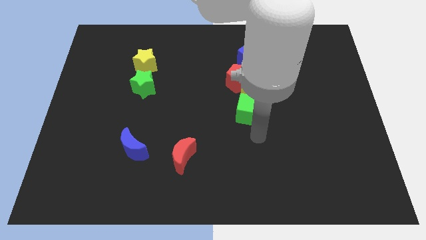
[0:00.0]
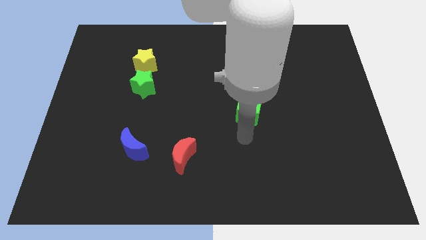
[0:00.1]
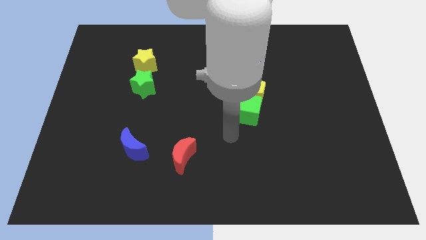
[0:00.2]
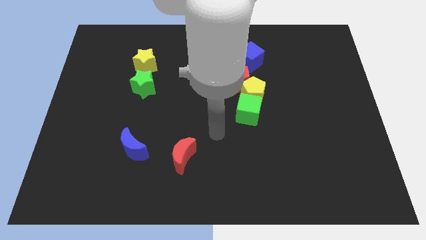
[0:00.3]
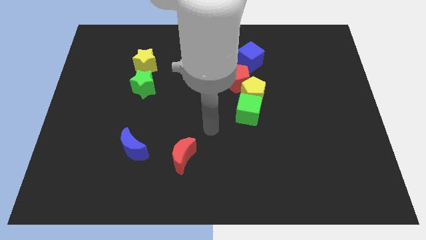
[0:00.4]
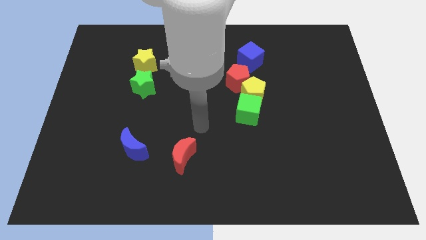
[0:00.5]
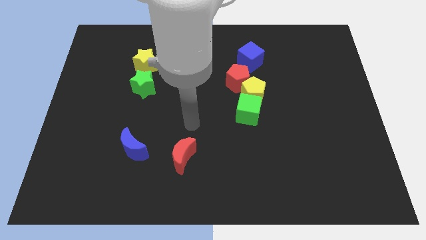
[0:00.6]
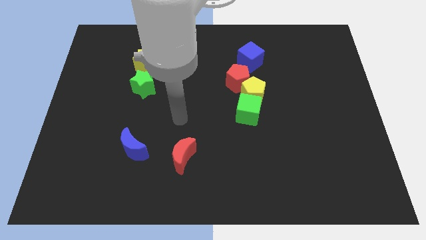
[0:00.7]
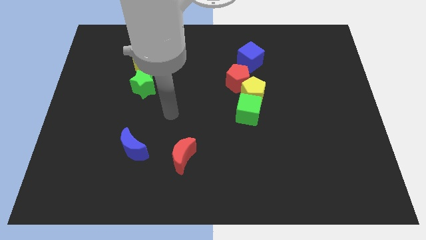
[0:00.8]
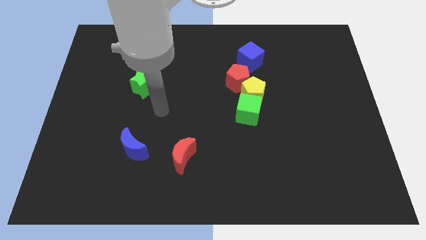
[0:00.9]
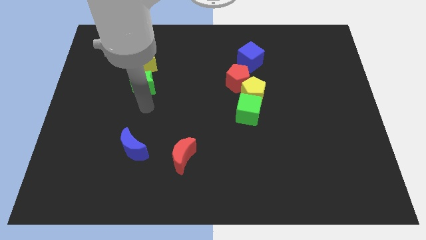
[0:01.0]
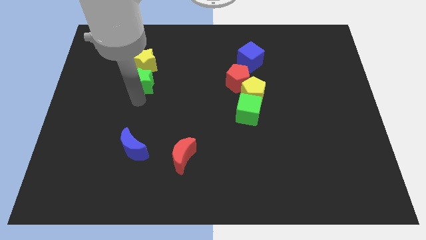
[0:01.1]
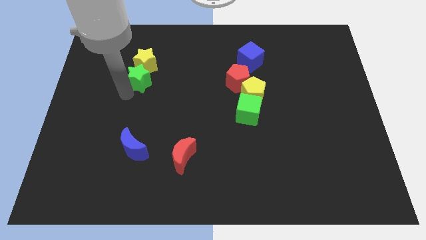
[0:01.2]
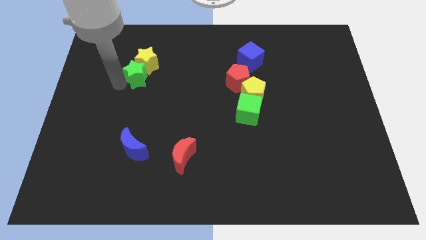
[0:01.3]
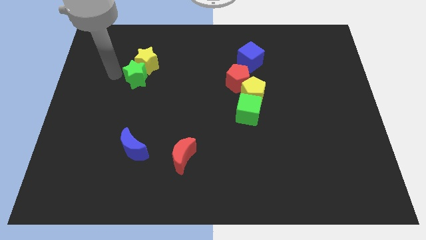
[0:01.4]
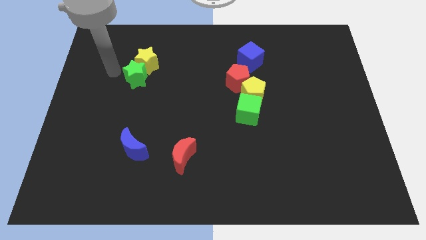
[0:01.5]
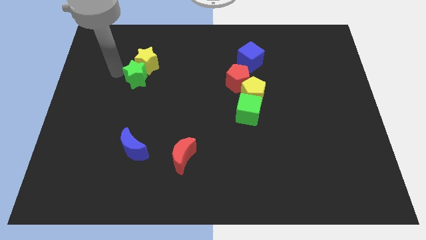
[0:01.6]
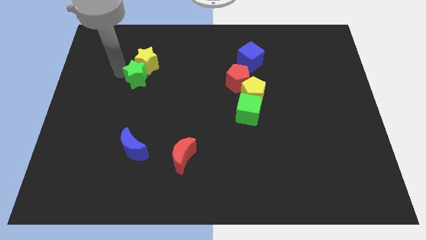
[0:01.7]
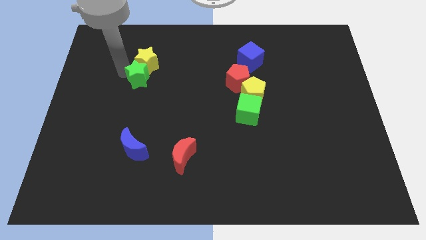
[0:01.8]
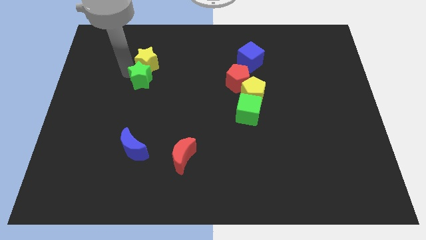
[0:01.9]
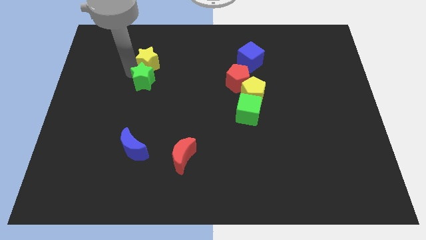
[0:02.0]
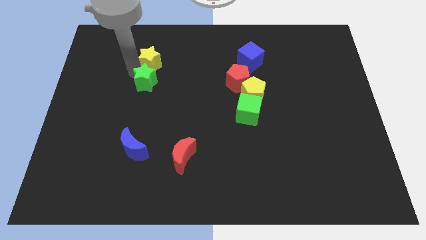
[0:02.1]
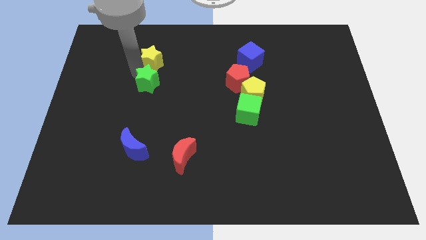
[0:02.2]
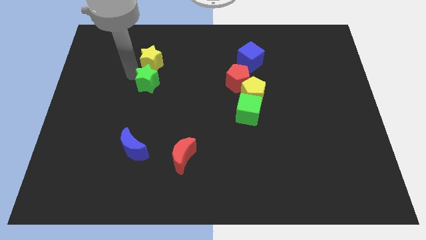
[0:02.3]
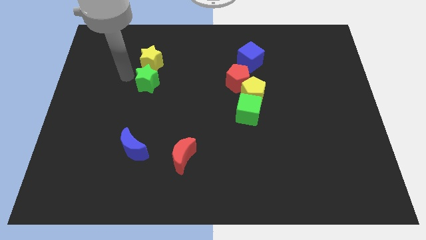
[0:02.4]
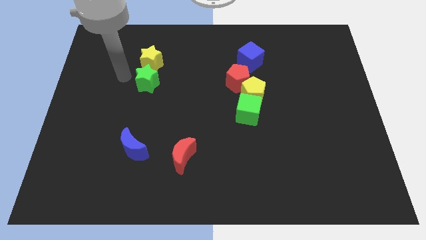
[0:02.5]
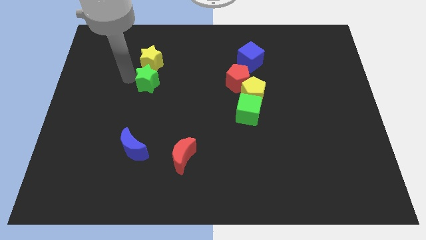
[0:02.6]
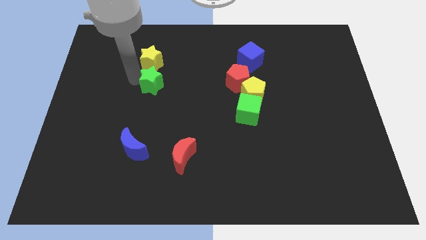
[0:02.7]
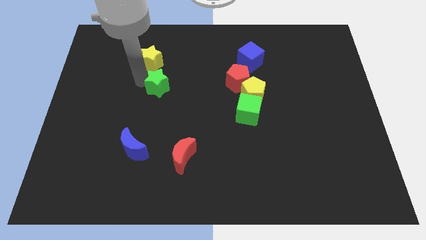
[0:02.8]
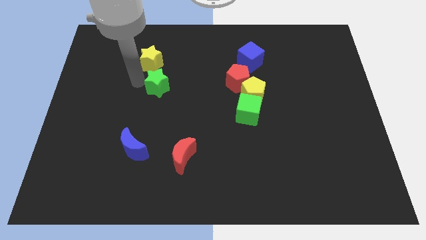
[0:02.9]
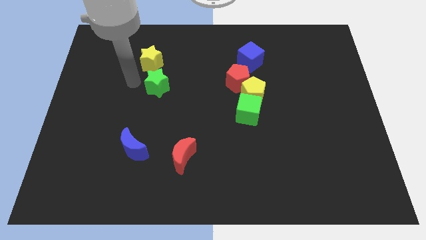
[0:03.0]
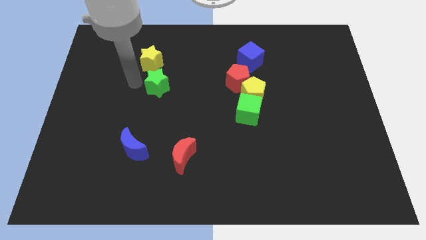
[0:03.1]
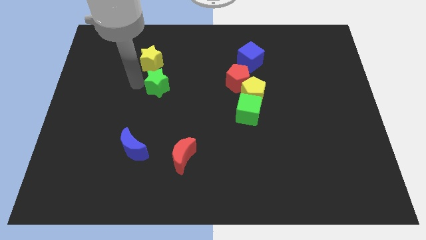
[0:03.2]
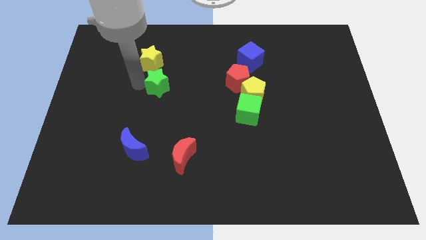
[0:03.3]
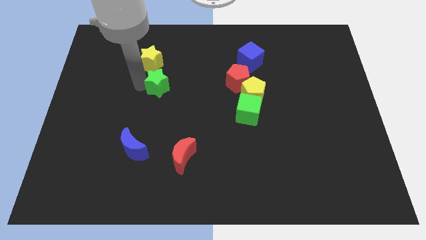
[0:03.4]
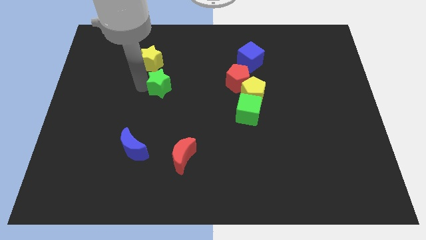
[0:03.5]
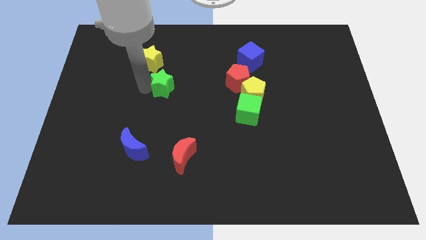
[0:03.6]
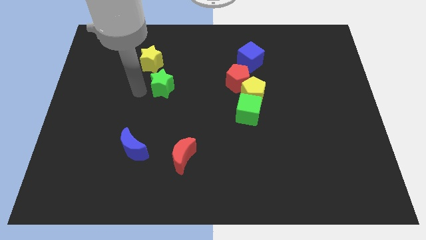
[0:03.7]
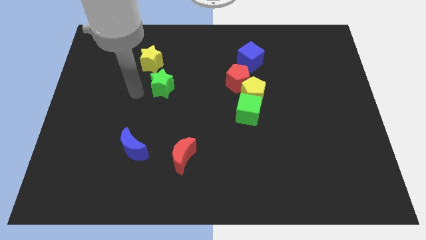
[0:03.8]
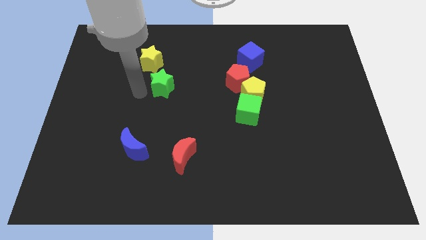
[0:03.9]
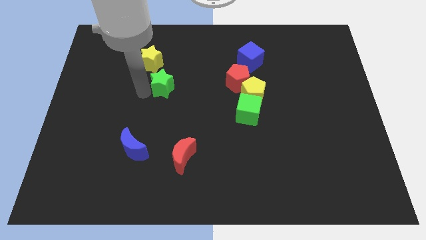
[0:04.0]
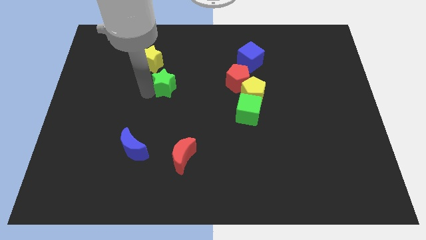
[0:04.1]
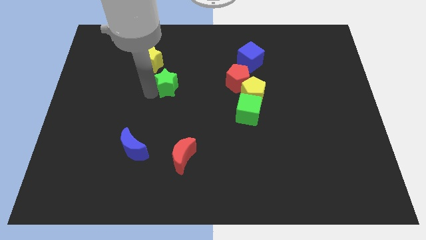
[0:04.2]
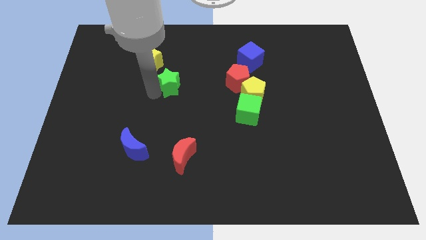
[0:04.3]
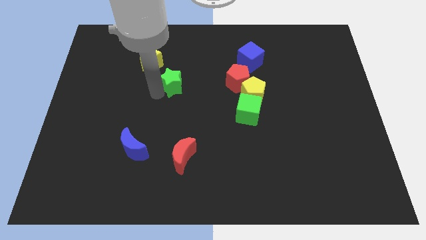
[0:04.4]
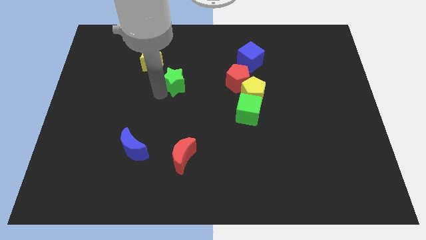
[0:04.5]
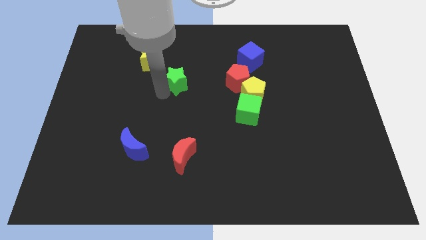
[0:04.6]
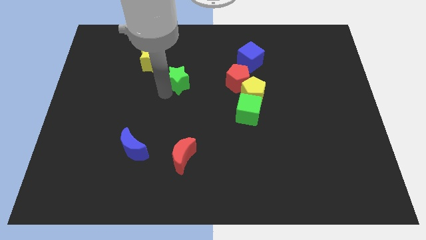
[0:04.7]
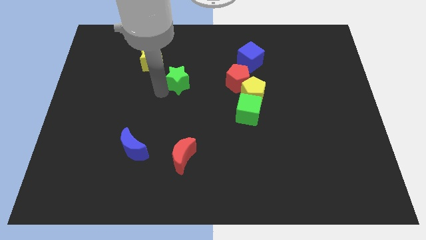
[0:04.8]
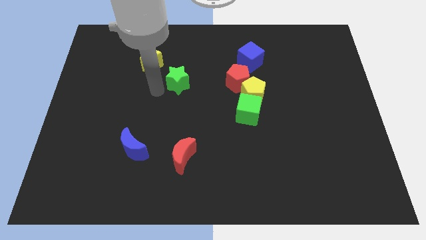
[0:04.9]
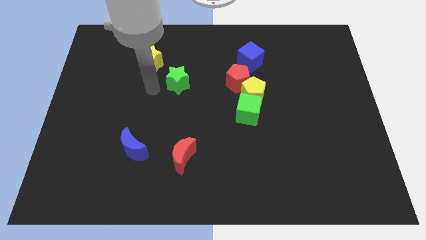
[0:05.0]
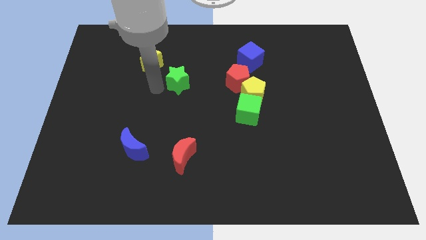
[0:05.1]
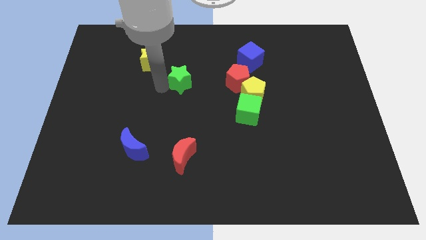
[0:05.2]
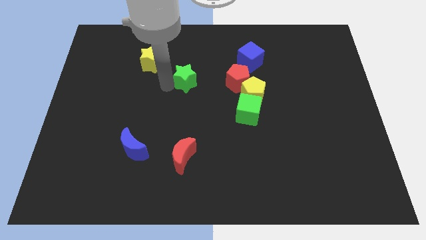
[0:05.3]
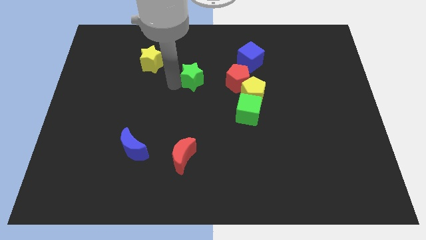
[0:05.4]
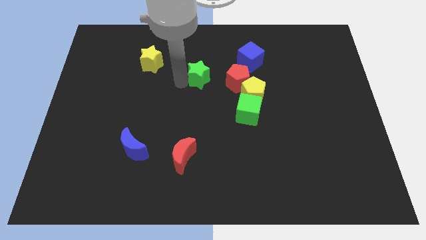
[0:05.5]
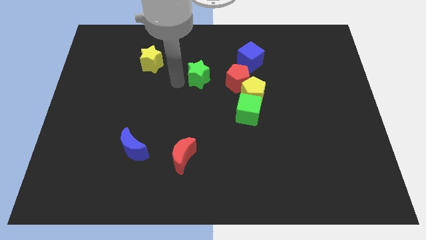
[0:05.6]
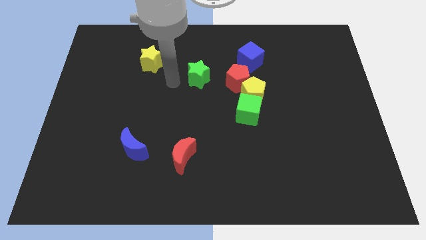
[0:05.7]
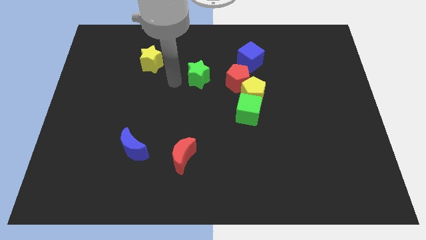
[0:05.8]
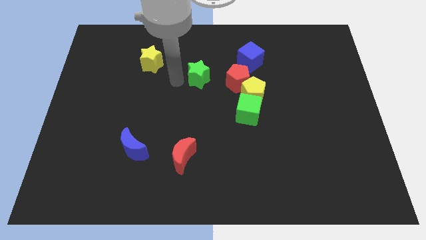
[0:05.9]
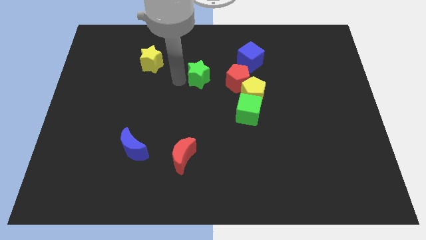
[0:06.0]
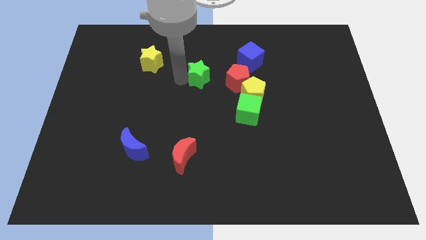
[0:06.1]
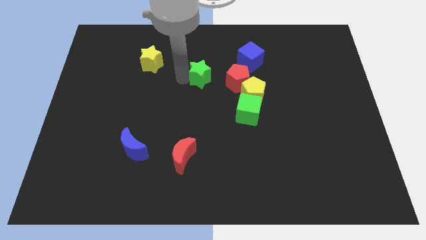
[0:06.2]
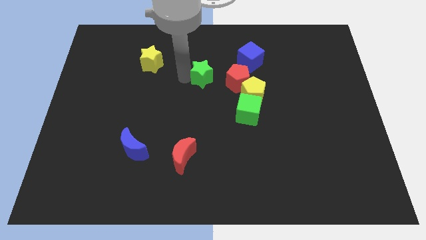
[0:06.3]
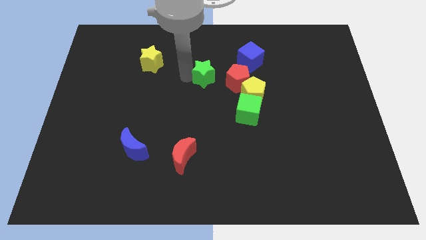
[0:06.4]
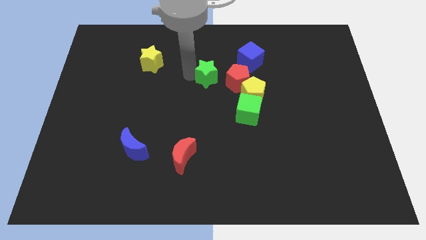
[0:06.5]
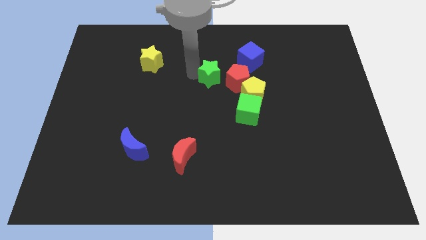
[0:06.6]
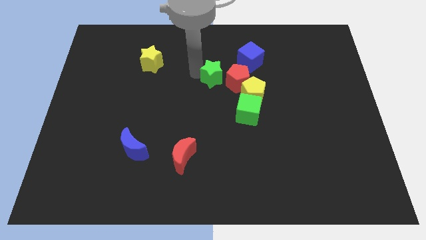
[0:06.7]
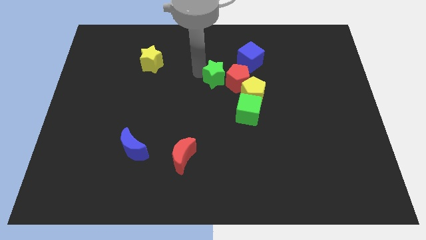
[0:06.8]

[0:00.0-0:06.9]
move the green star towards the red pentagon
